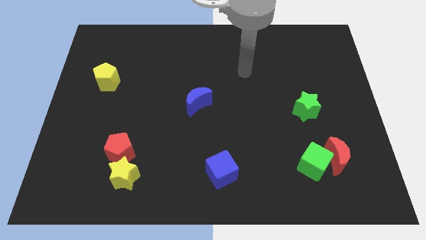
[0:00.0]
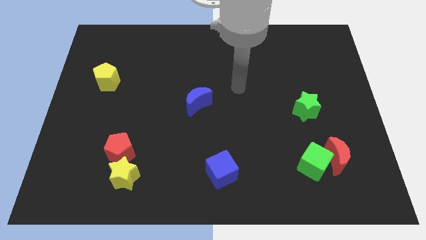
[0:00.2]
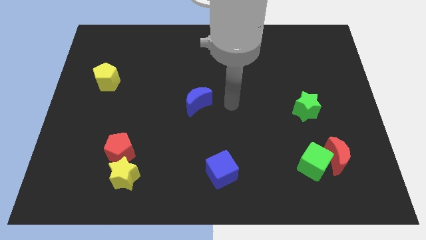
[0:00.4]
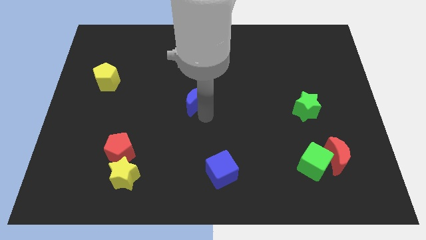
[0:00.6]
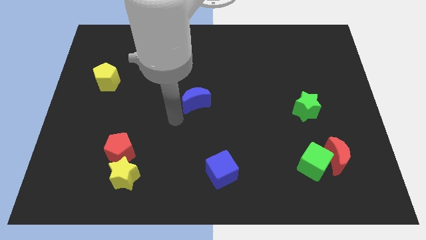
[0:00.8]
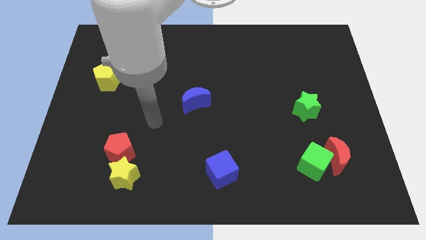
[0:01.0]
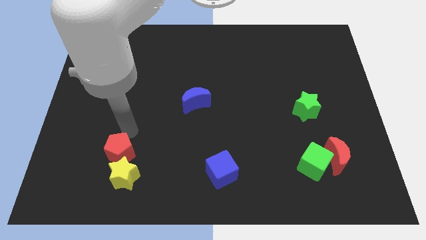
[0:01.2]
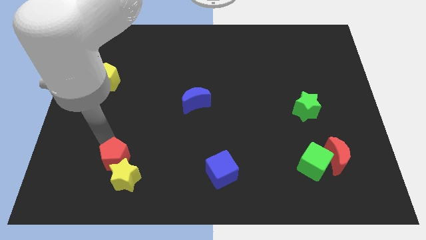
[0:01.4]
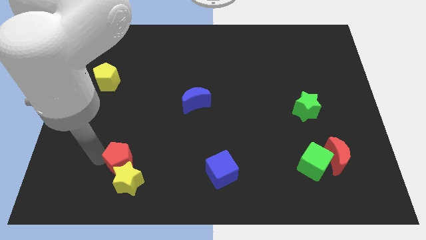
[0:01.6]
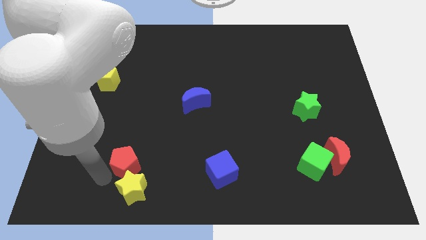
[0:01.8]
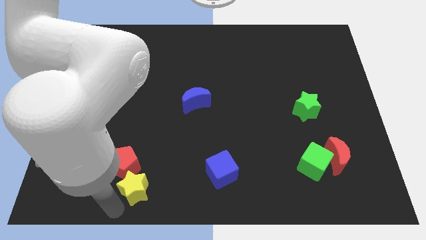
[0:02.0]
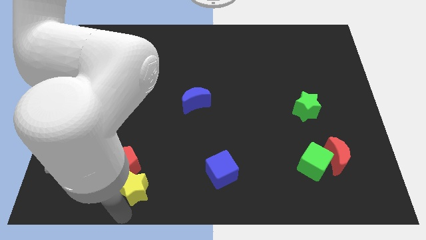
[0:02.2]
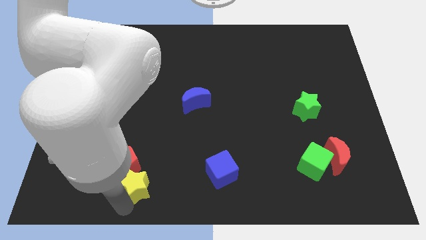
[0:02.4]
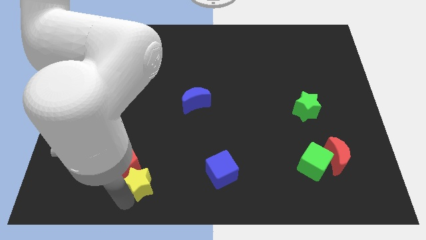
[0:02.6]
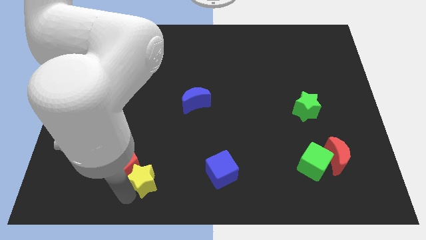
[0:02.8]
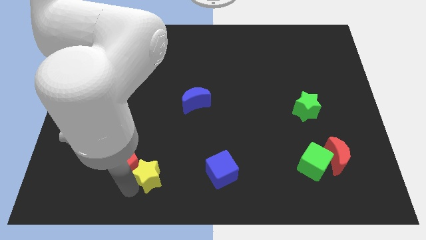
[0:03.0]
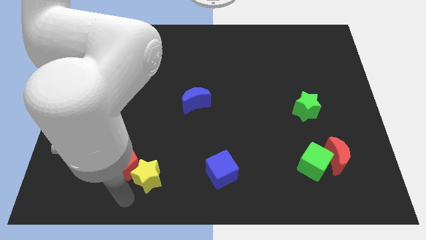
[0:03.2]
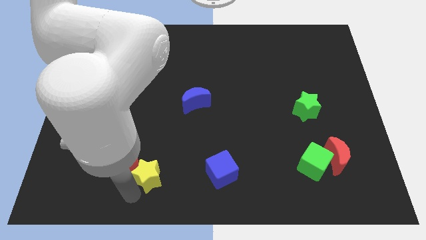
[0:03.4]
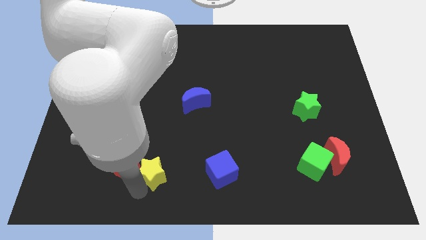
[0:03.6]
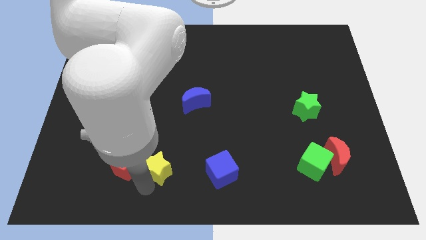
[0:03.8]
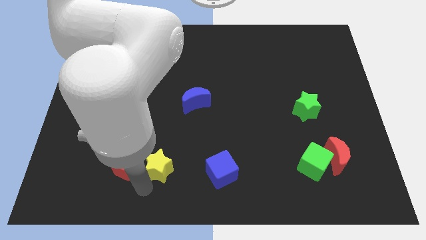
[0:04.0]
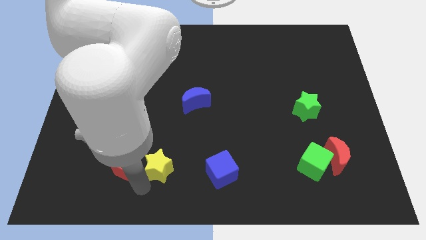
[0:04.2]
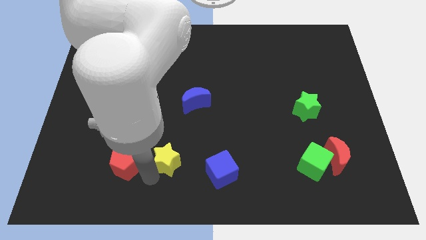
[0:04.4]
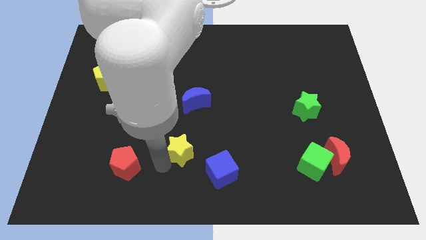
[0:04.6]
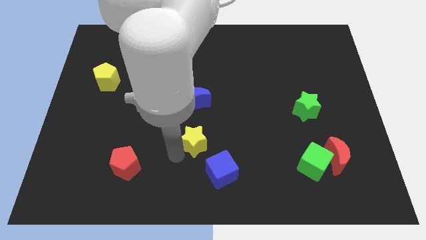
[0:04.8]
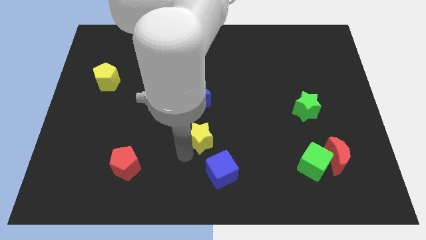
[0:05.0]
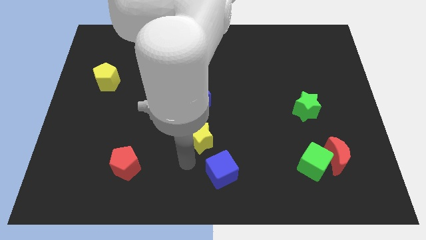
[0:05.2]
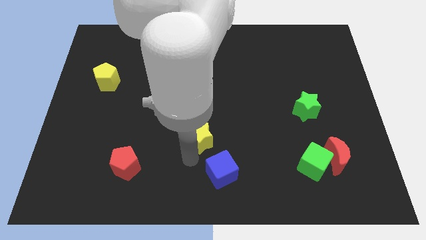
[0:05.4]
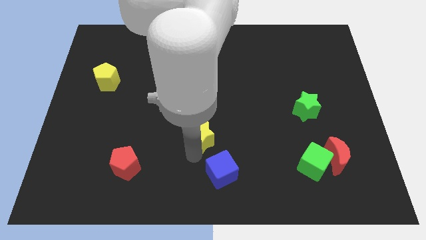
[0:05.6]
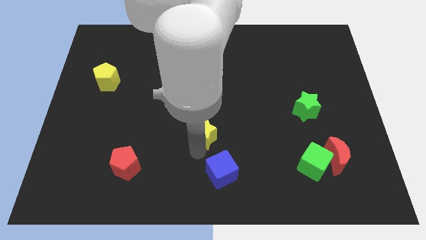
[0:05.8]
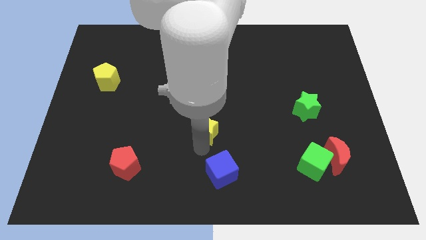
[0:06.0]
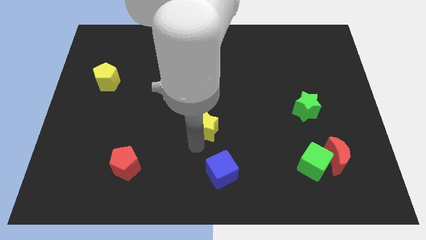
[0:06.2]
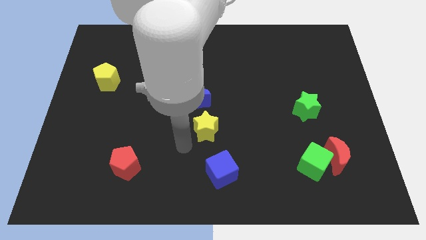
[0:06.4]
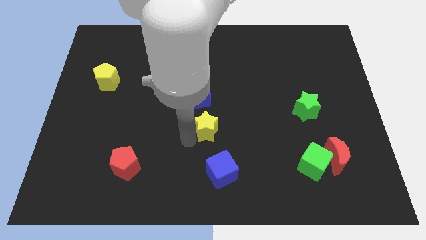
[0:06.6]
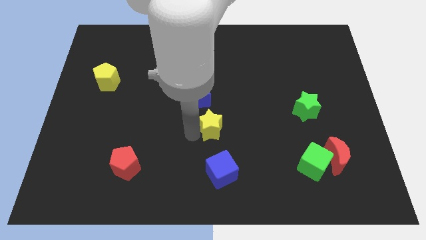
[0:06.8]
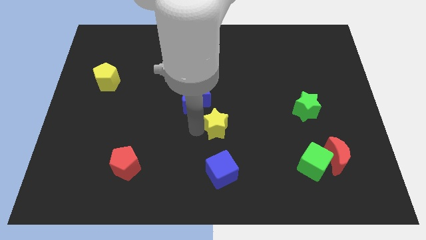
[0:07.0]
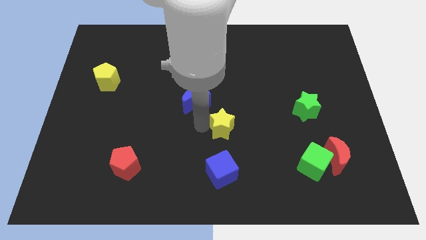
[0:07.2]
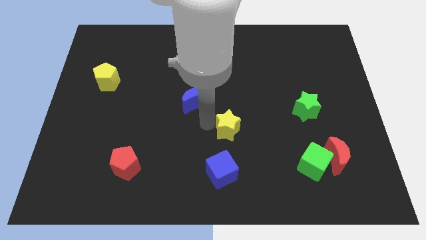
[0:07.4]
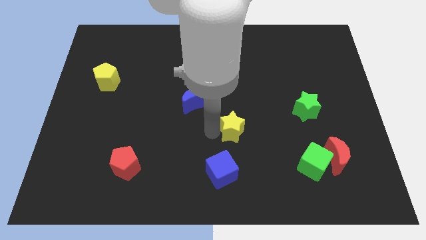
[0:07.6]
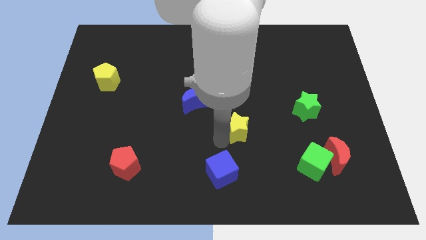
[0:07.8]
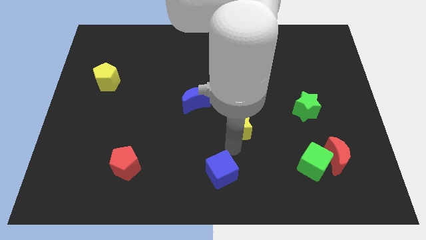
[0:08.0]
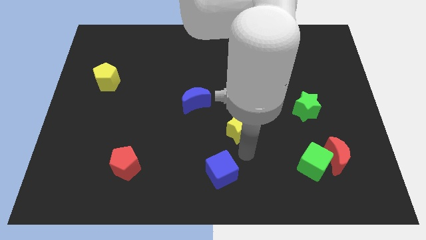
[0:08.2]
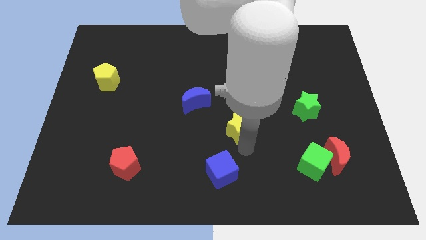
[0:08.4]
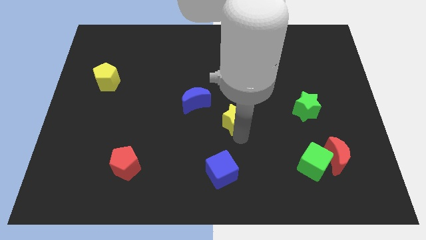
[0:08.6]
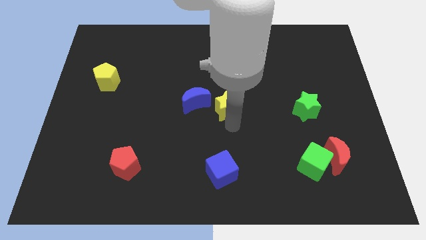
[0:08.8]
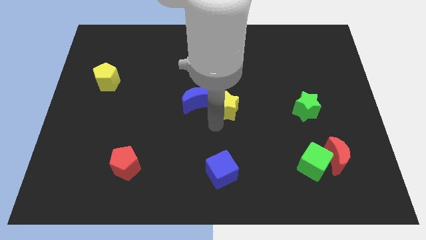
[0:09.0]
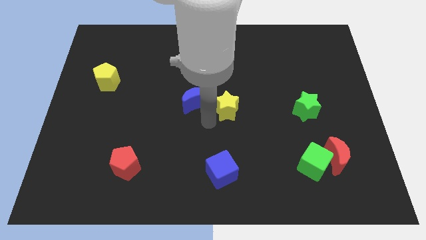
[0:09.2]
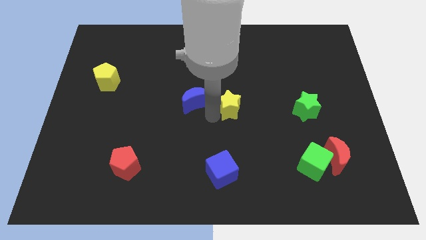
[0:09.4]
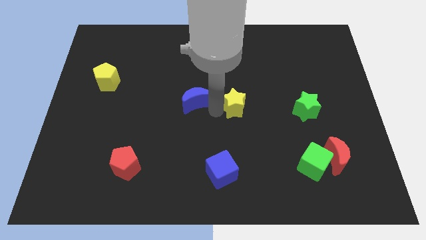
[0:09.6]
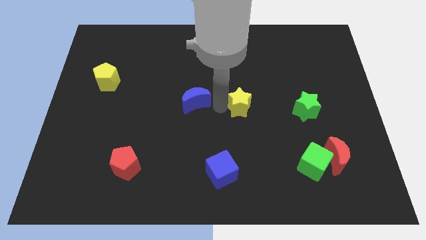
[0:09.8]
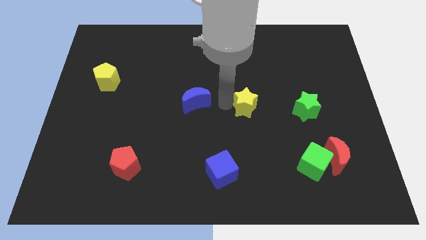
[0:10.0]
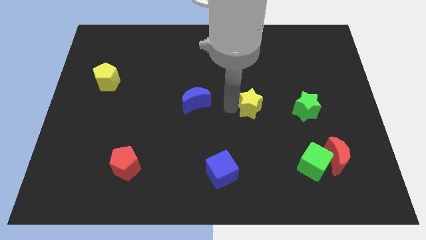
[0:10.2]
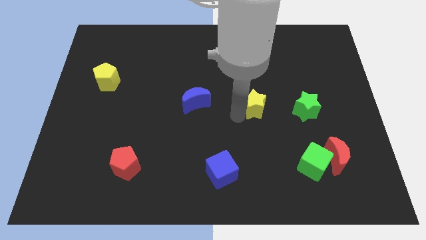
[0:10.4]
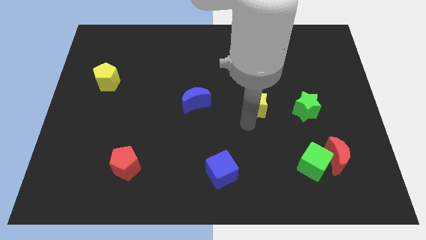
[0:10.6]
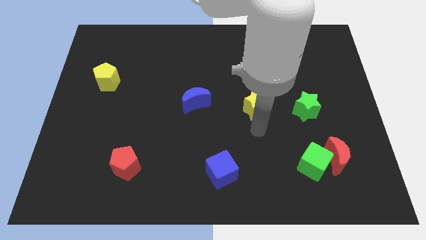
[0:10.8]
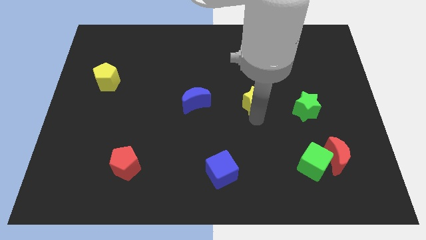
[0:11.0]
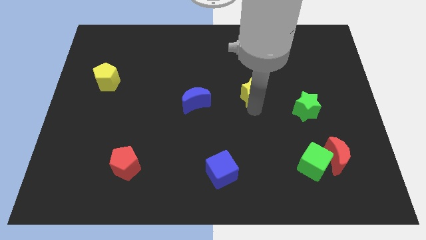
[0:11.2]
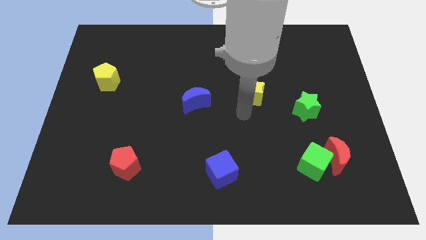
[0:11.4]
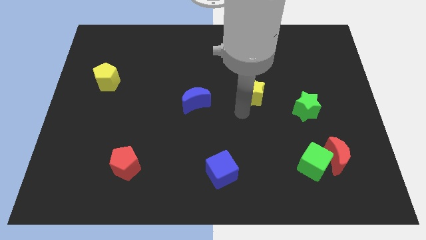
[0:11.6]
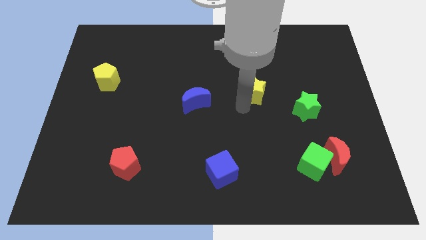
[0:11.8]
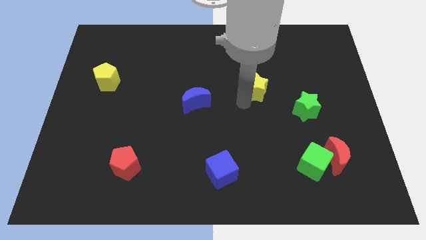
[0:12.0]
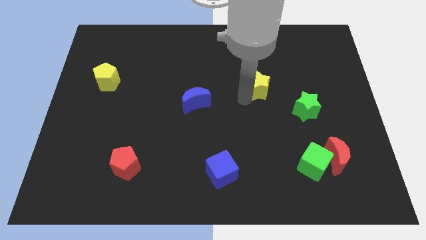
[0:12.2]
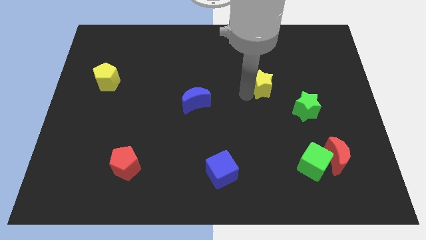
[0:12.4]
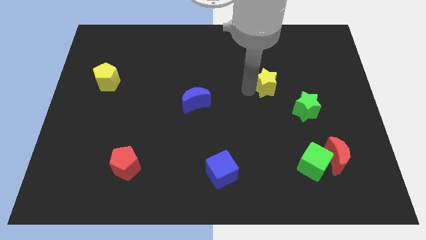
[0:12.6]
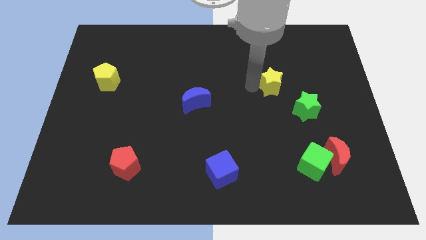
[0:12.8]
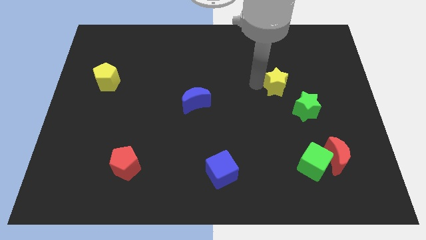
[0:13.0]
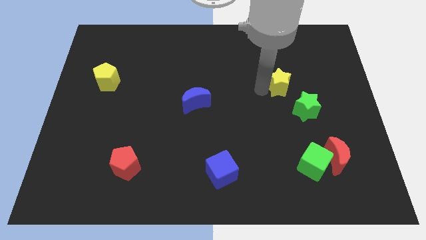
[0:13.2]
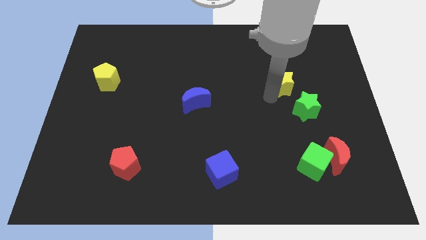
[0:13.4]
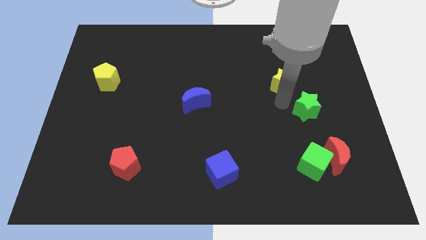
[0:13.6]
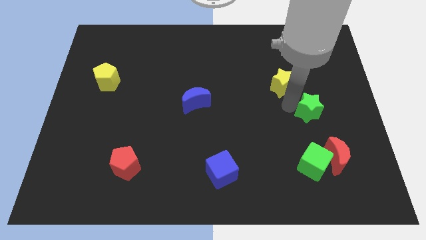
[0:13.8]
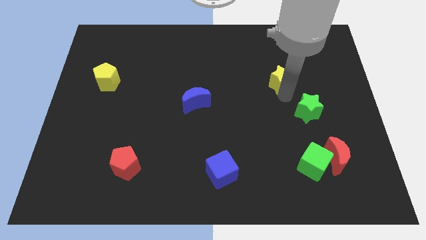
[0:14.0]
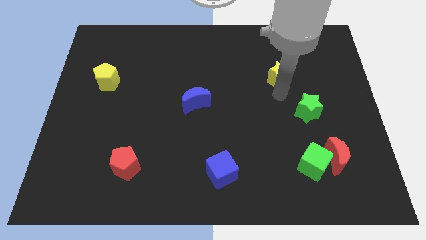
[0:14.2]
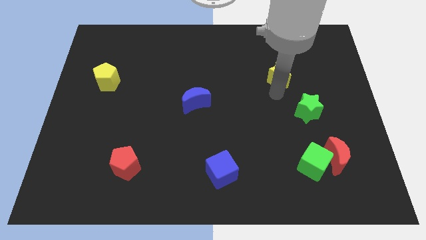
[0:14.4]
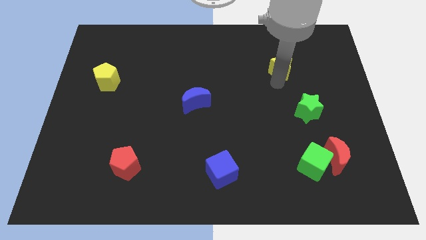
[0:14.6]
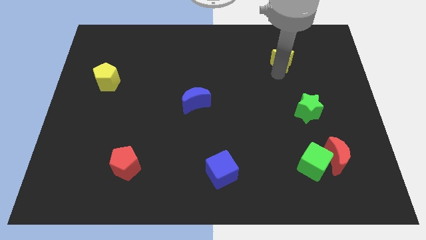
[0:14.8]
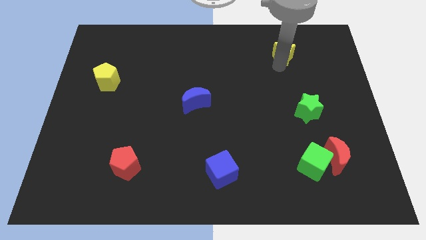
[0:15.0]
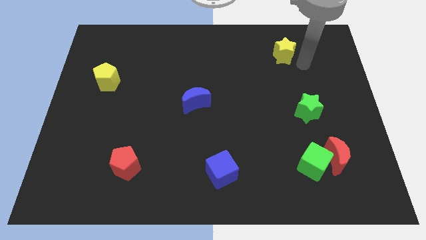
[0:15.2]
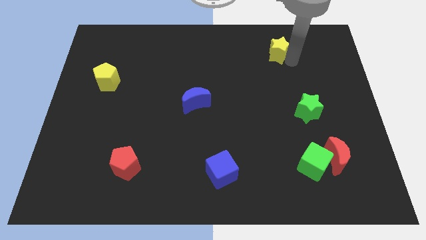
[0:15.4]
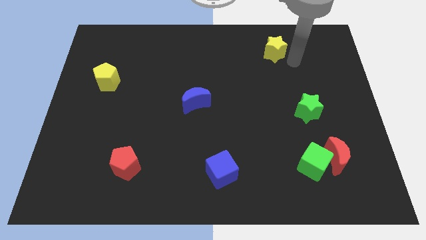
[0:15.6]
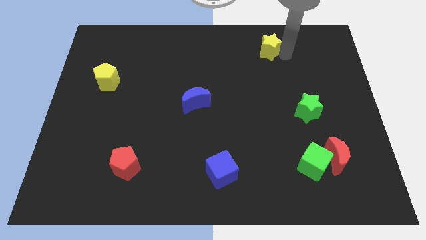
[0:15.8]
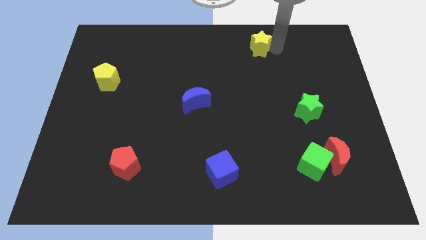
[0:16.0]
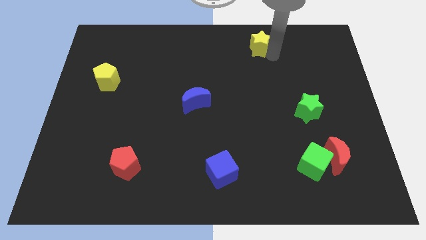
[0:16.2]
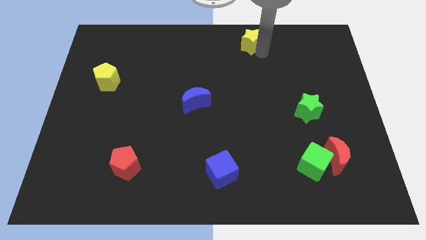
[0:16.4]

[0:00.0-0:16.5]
put the yellow star to the top
